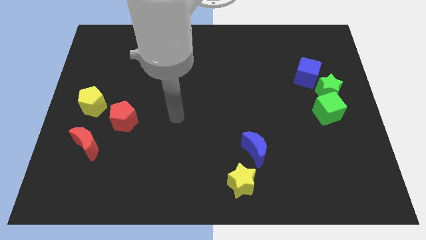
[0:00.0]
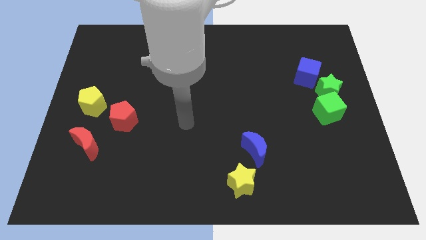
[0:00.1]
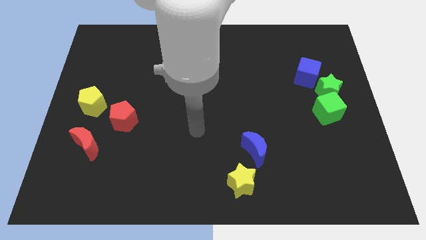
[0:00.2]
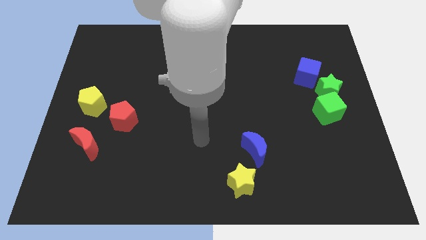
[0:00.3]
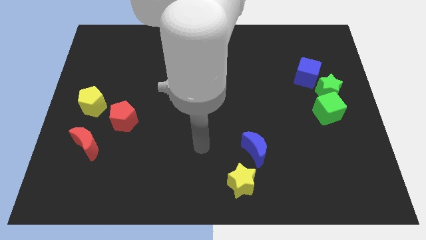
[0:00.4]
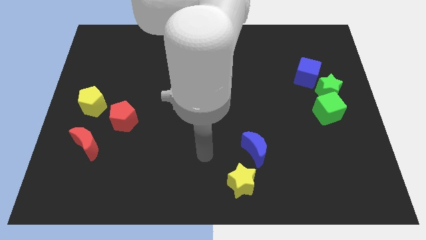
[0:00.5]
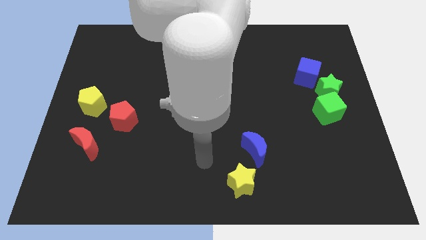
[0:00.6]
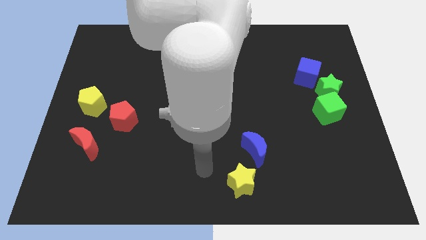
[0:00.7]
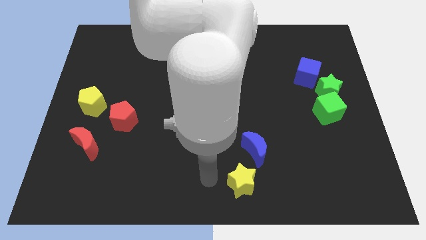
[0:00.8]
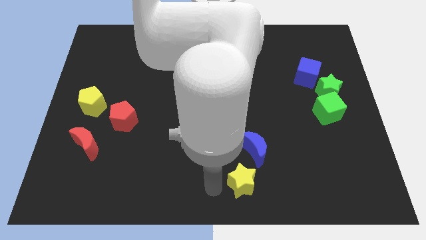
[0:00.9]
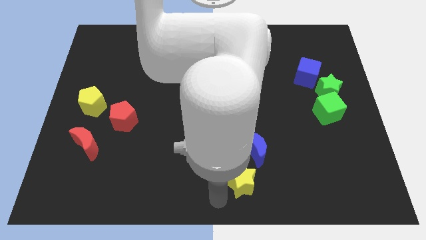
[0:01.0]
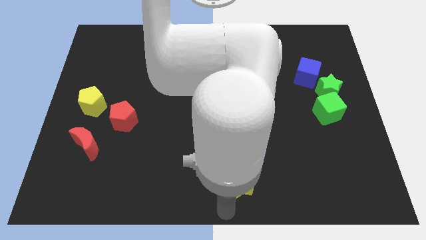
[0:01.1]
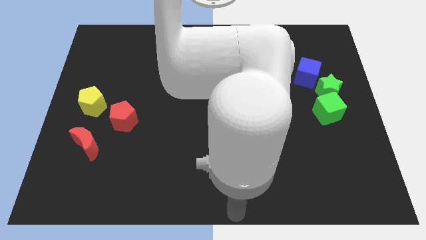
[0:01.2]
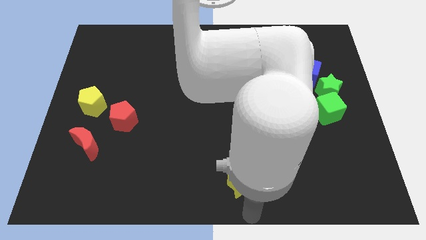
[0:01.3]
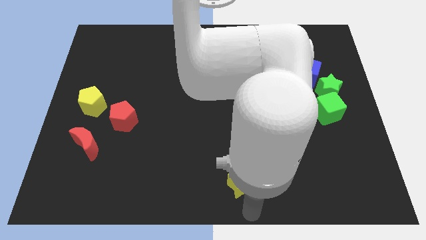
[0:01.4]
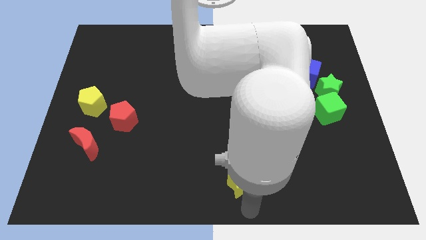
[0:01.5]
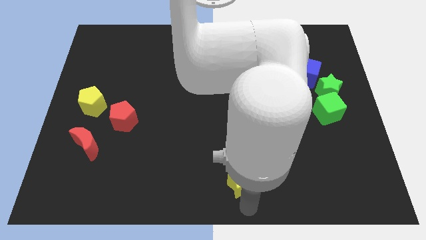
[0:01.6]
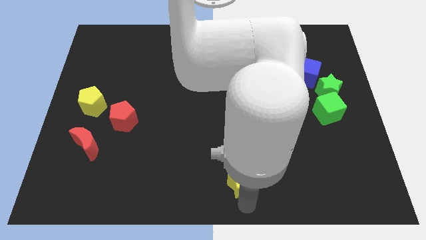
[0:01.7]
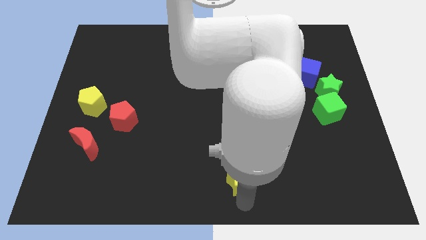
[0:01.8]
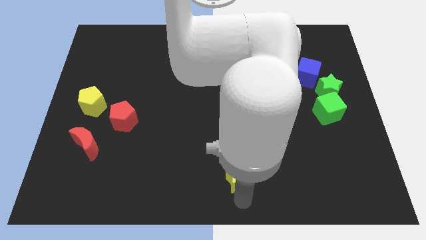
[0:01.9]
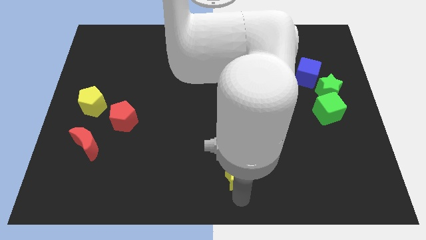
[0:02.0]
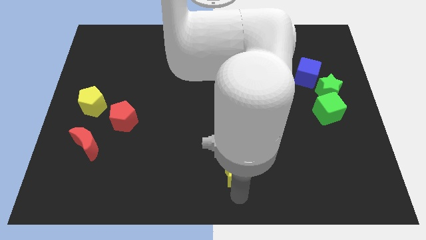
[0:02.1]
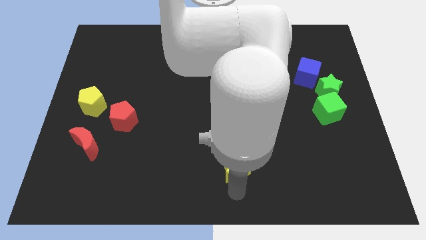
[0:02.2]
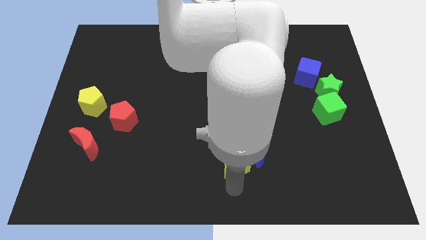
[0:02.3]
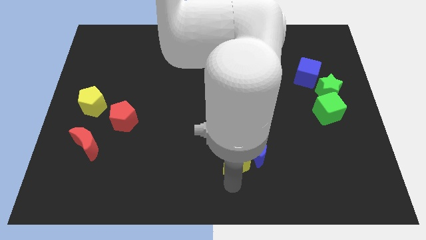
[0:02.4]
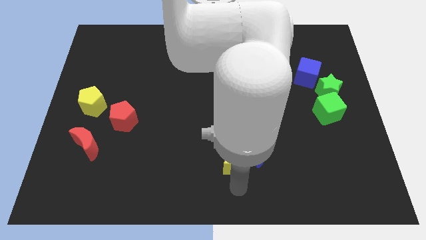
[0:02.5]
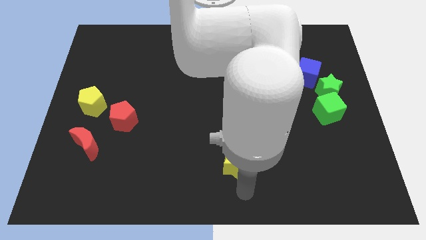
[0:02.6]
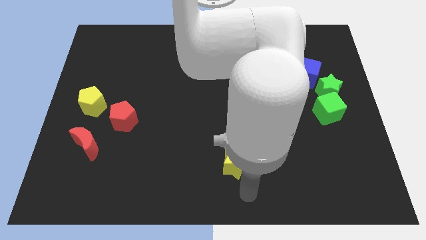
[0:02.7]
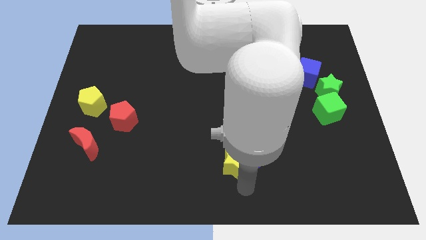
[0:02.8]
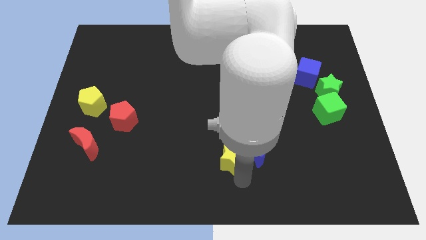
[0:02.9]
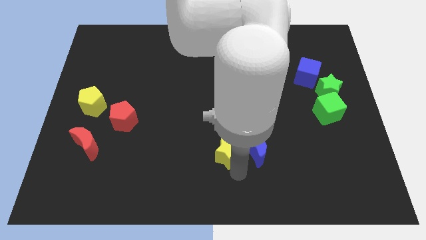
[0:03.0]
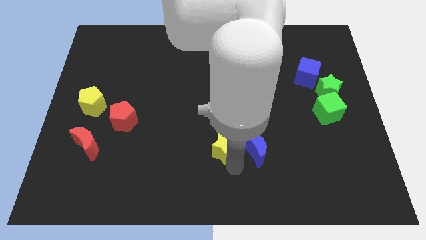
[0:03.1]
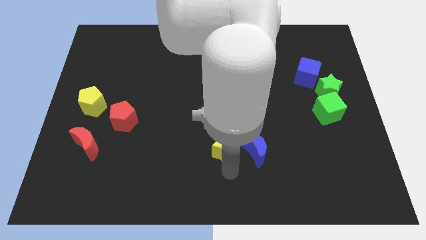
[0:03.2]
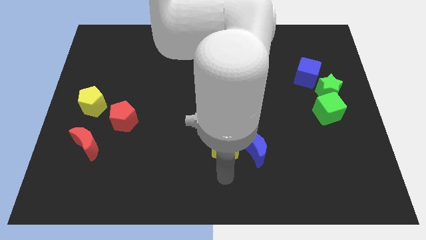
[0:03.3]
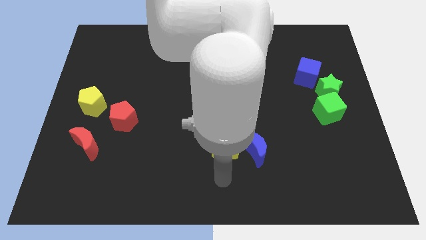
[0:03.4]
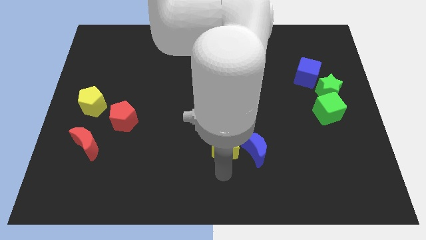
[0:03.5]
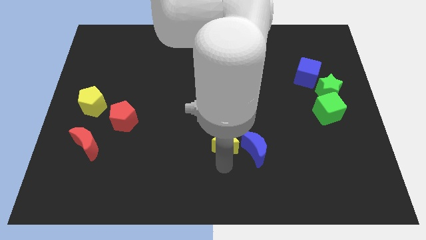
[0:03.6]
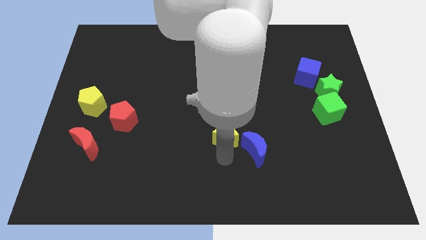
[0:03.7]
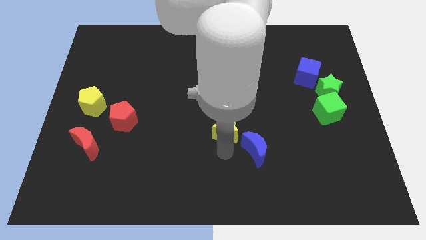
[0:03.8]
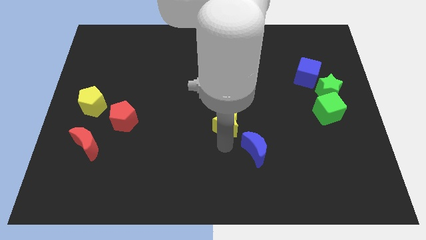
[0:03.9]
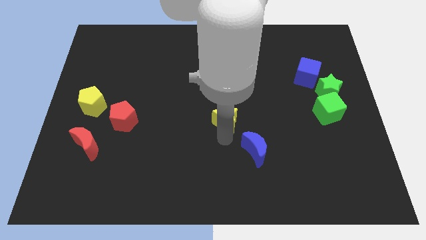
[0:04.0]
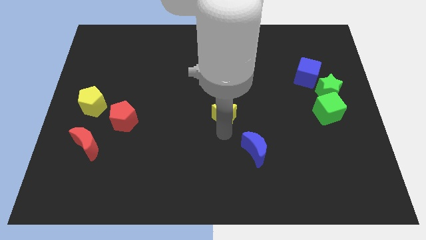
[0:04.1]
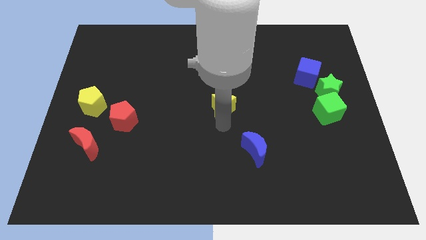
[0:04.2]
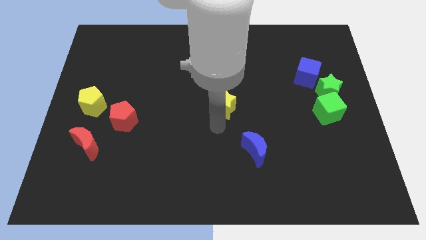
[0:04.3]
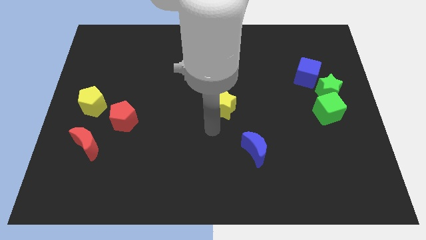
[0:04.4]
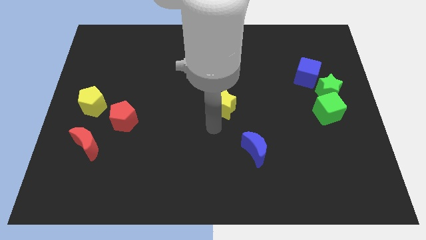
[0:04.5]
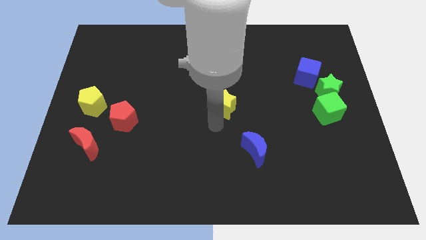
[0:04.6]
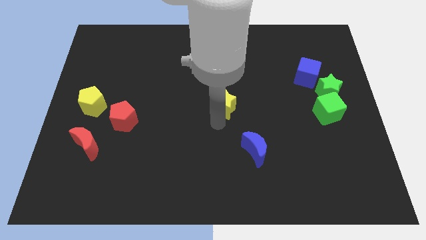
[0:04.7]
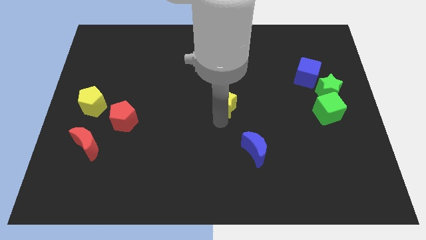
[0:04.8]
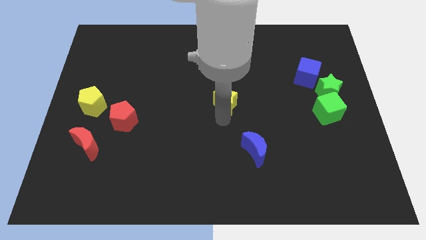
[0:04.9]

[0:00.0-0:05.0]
slide the yellow star upwards

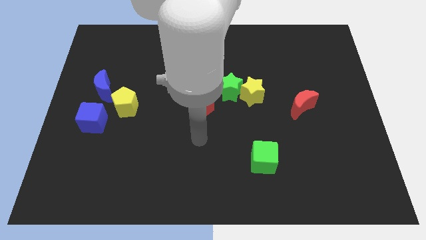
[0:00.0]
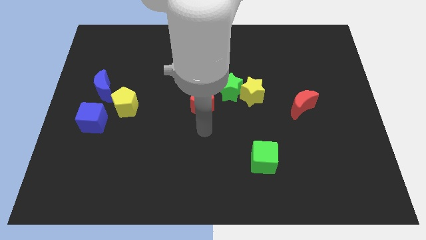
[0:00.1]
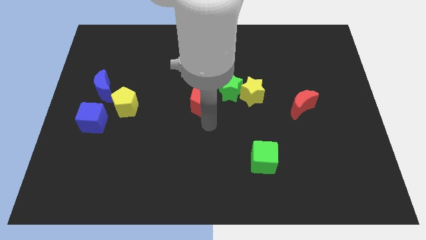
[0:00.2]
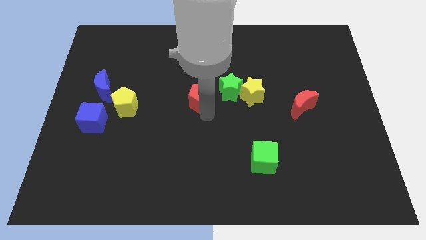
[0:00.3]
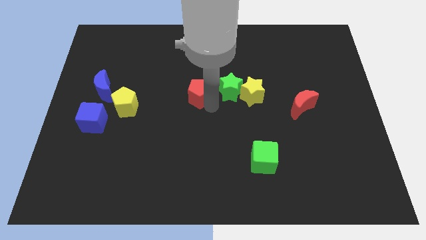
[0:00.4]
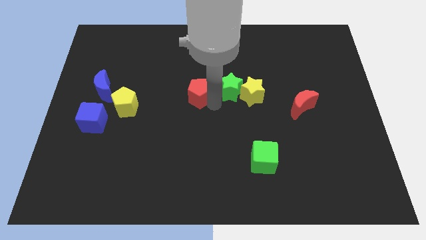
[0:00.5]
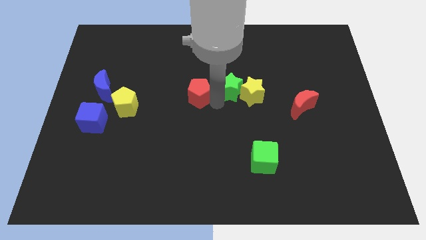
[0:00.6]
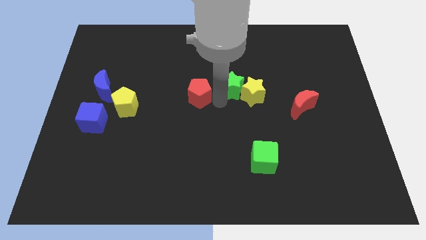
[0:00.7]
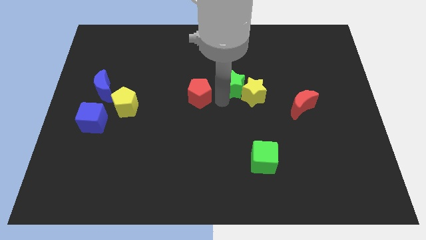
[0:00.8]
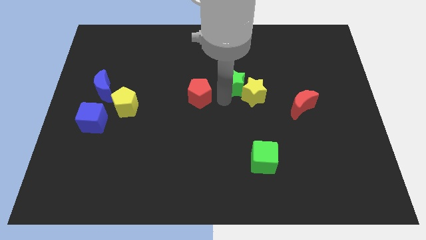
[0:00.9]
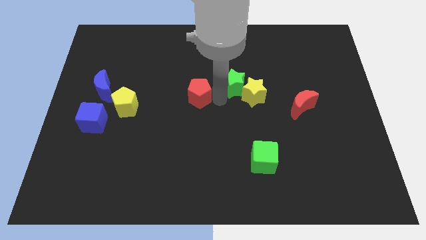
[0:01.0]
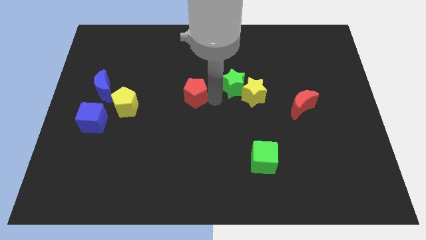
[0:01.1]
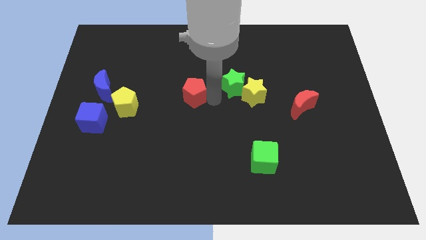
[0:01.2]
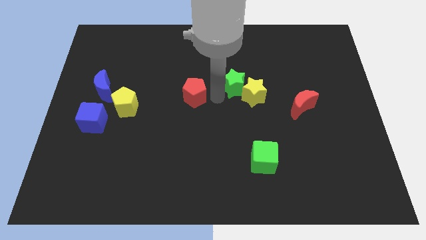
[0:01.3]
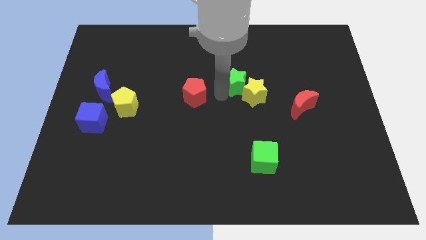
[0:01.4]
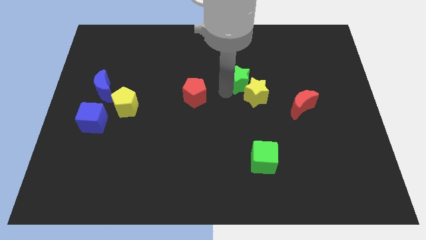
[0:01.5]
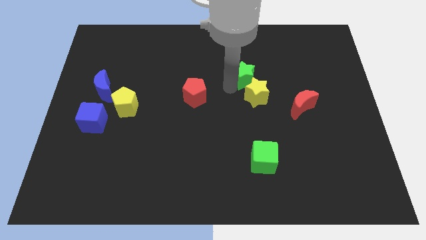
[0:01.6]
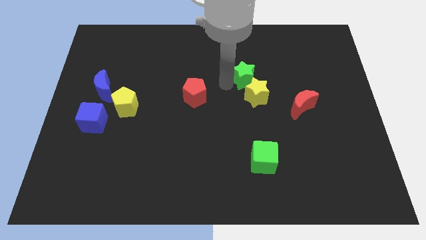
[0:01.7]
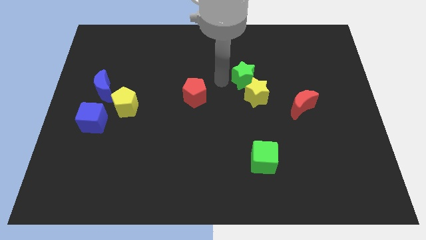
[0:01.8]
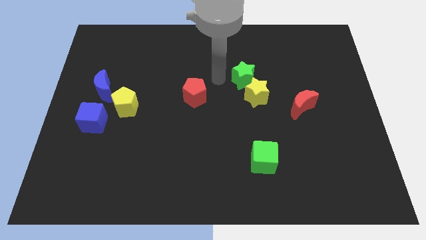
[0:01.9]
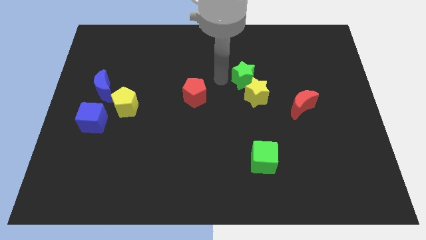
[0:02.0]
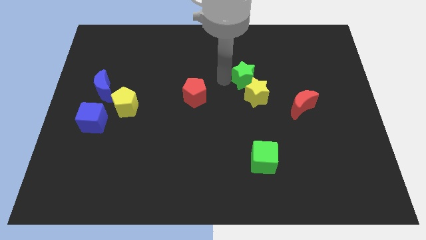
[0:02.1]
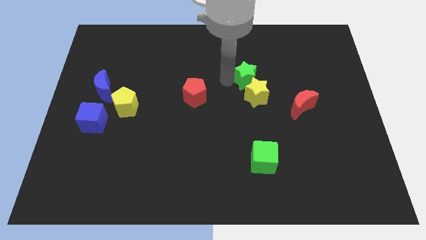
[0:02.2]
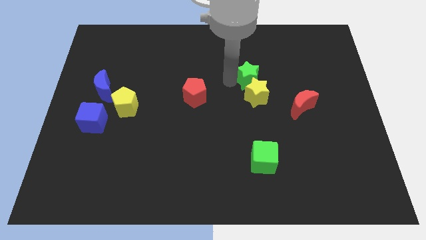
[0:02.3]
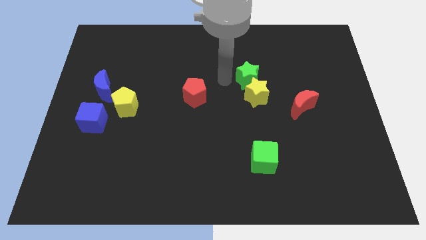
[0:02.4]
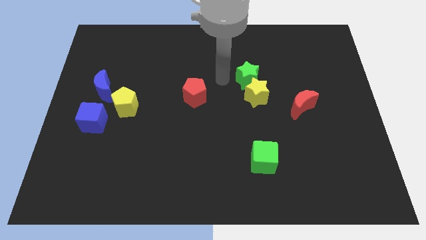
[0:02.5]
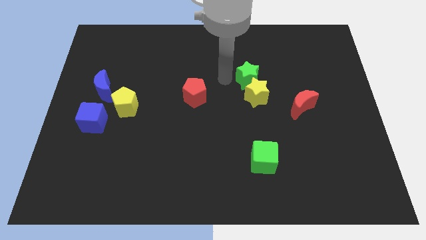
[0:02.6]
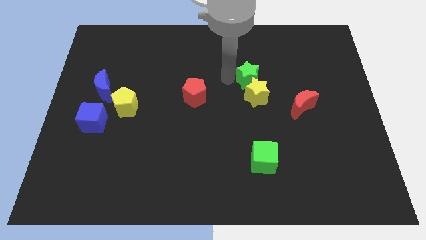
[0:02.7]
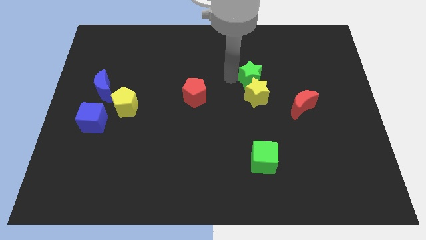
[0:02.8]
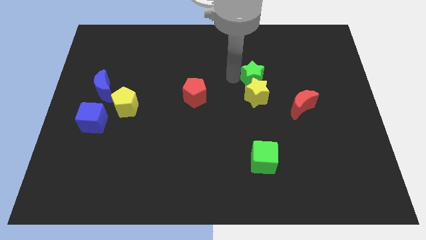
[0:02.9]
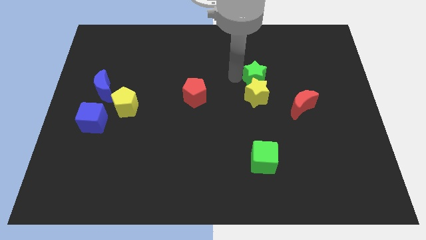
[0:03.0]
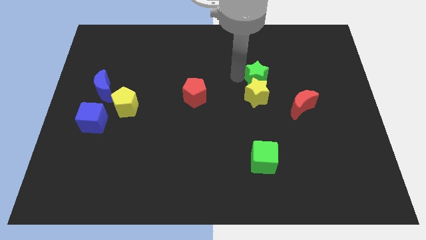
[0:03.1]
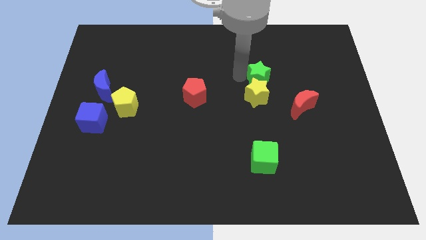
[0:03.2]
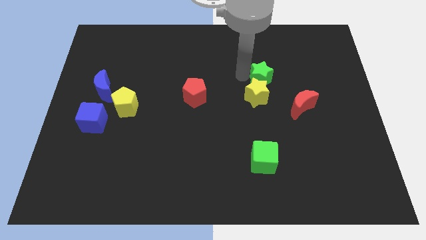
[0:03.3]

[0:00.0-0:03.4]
slightly move the green star right
